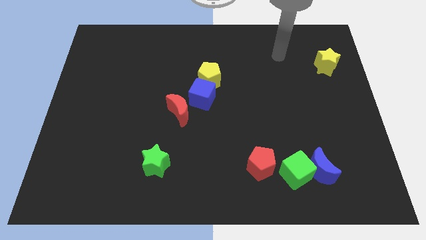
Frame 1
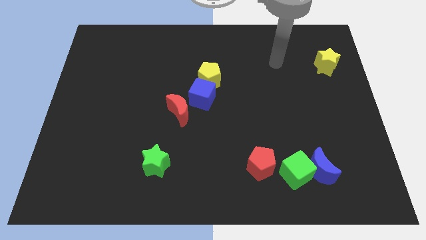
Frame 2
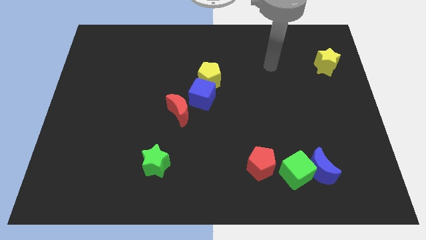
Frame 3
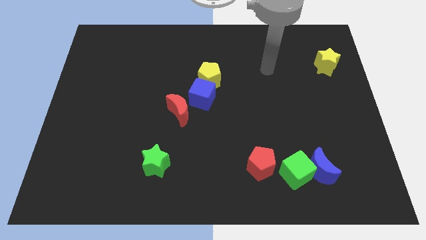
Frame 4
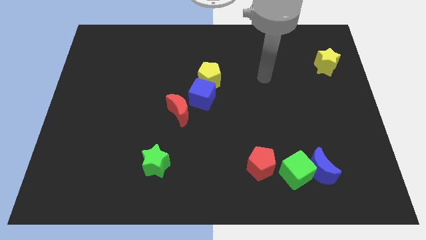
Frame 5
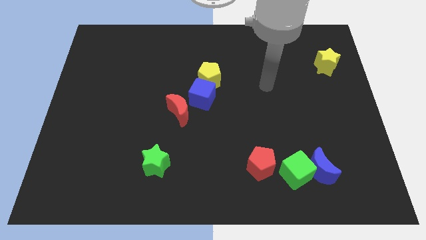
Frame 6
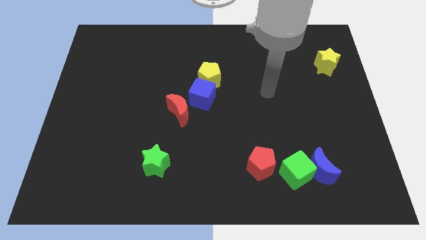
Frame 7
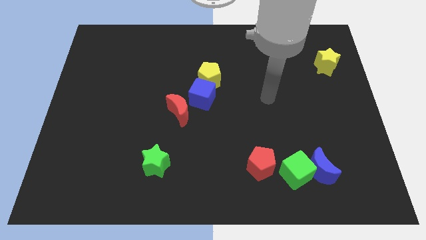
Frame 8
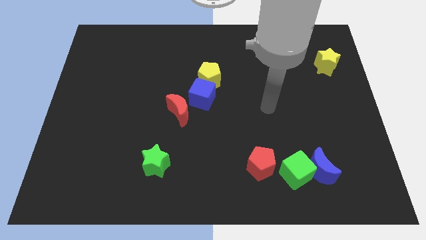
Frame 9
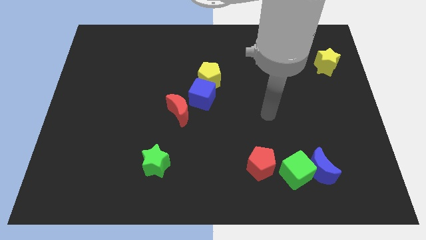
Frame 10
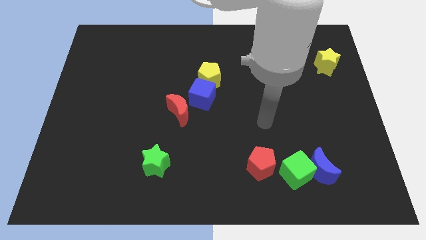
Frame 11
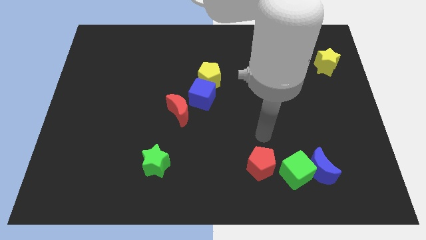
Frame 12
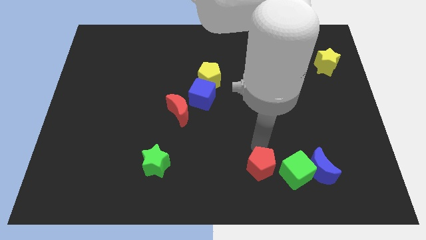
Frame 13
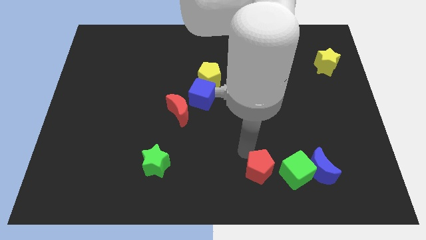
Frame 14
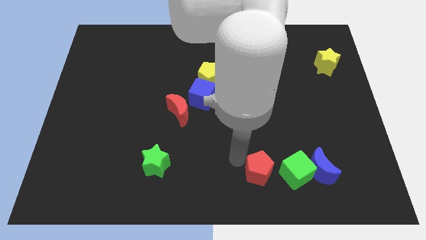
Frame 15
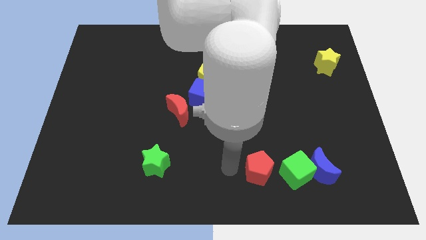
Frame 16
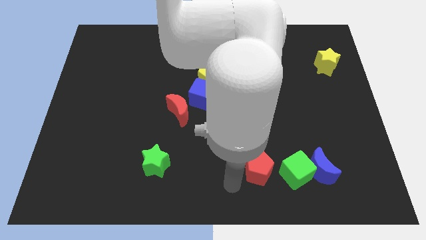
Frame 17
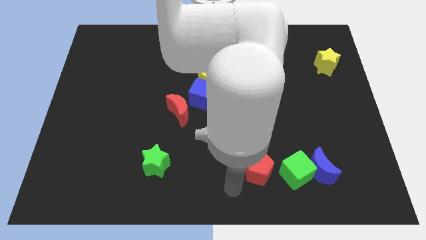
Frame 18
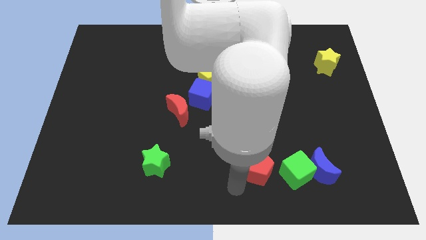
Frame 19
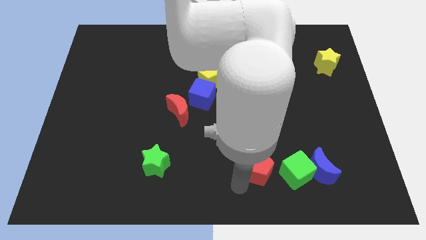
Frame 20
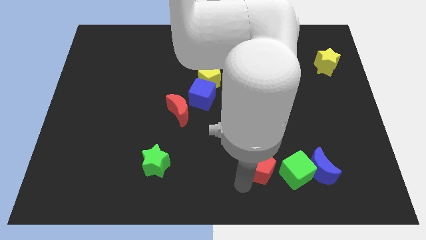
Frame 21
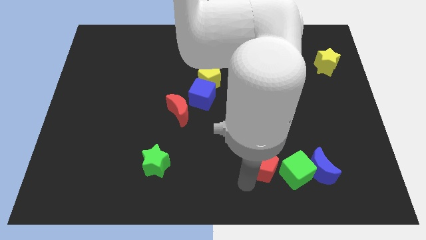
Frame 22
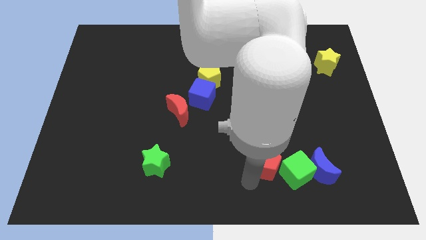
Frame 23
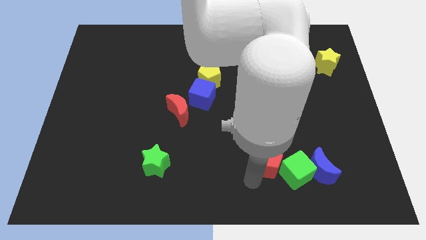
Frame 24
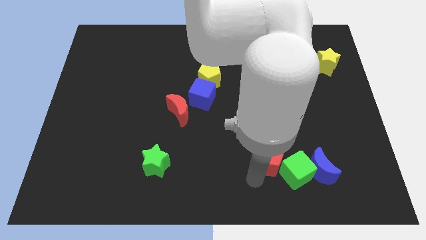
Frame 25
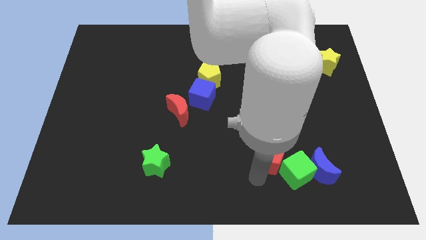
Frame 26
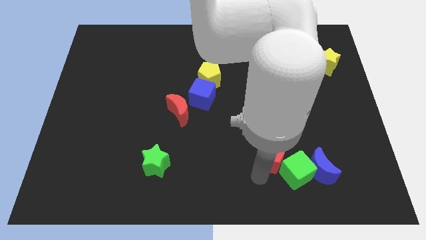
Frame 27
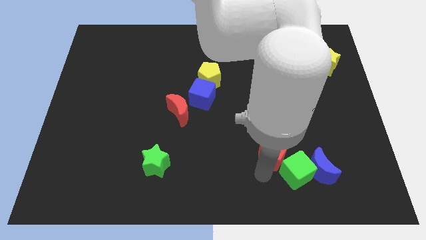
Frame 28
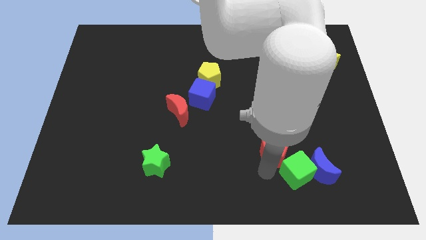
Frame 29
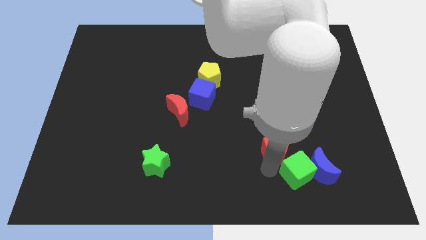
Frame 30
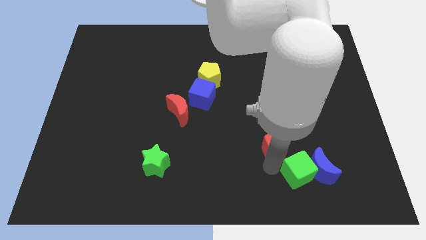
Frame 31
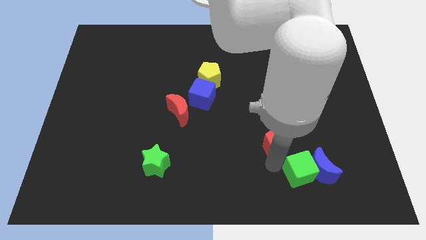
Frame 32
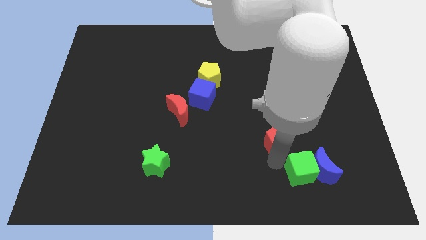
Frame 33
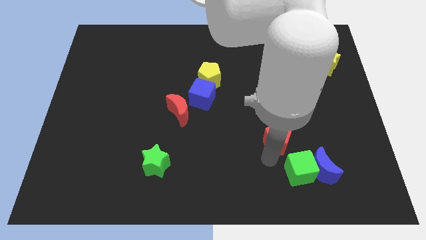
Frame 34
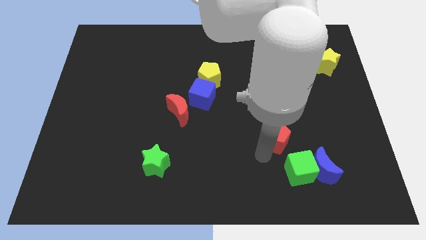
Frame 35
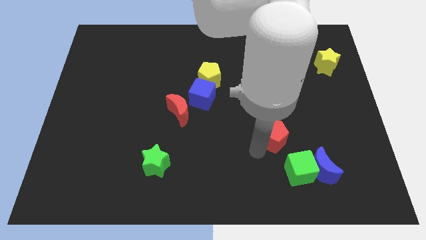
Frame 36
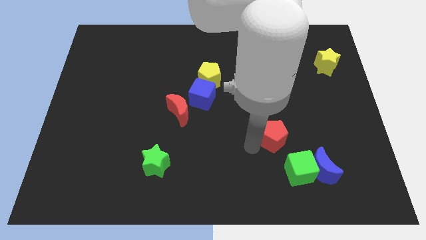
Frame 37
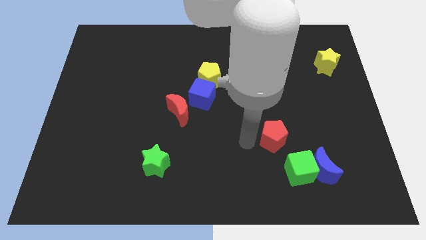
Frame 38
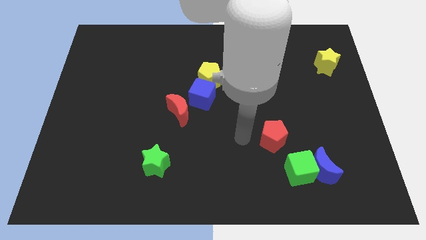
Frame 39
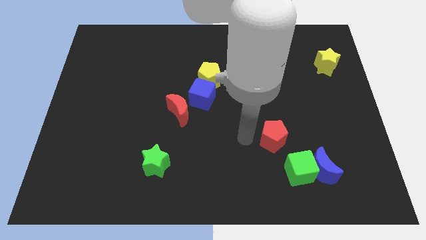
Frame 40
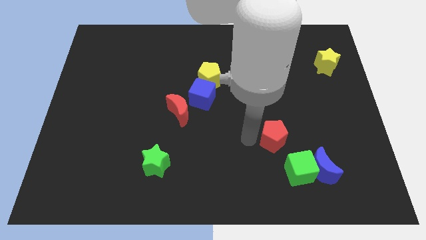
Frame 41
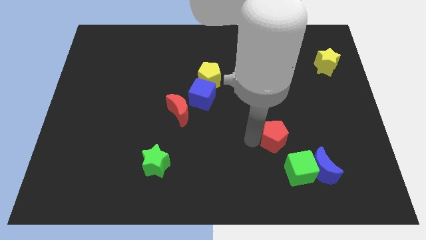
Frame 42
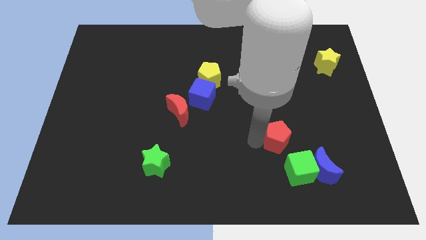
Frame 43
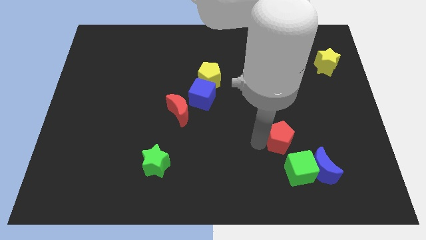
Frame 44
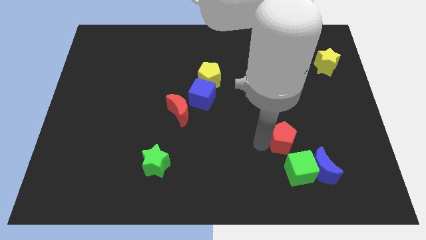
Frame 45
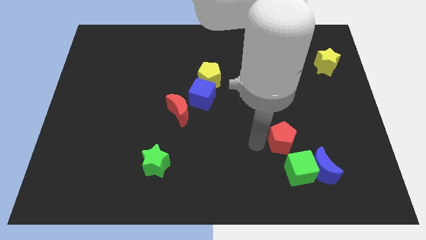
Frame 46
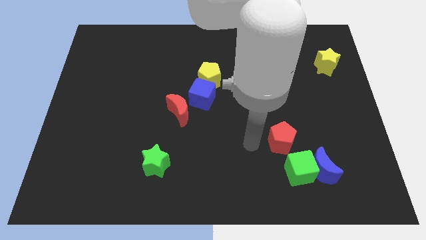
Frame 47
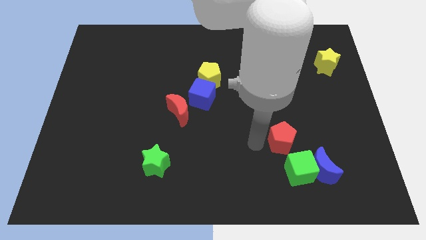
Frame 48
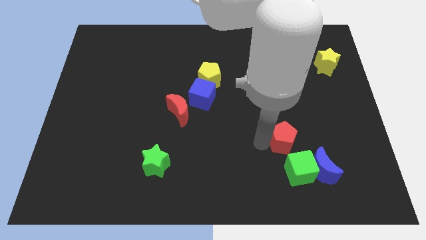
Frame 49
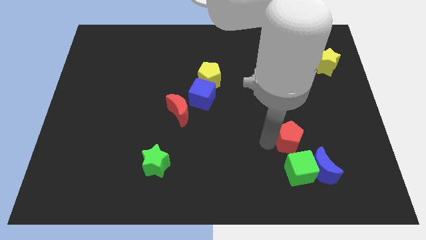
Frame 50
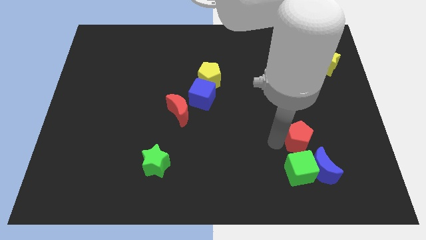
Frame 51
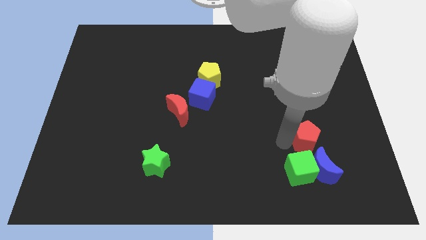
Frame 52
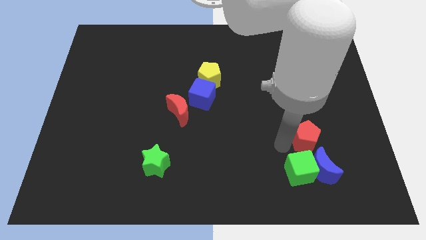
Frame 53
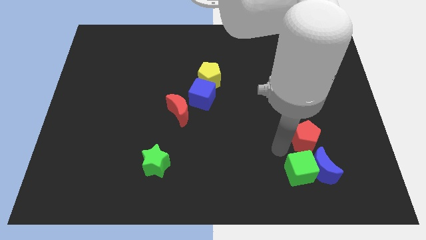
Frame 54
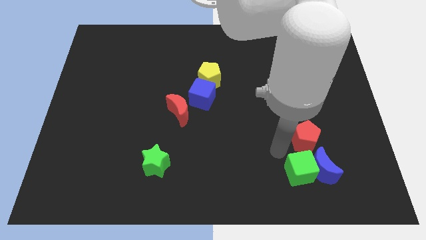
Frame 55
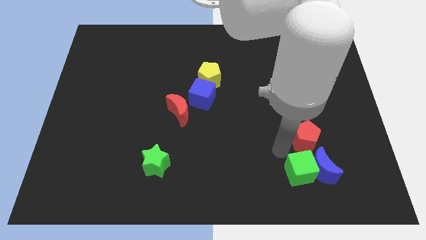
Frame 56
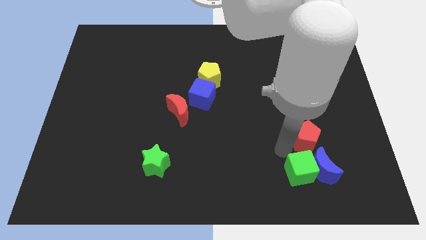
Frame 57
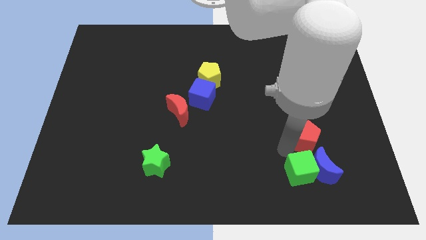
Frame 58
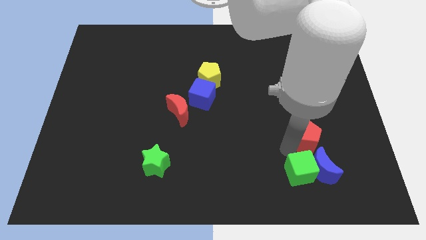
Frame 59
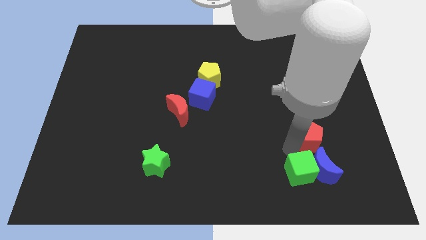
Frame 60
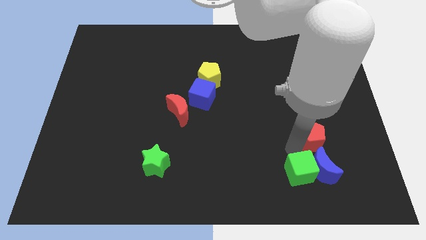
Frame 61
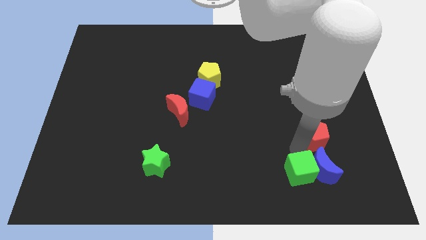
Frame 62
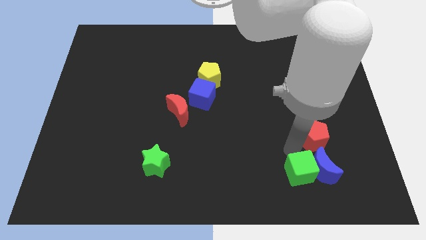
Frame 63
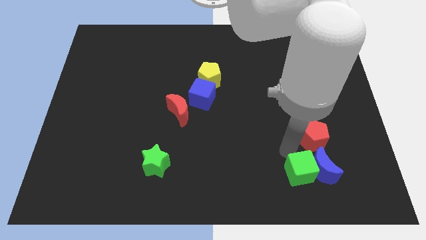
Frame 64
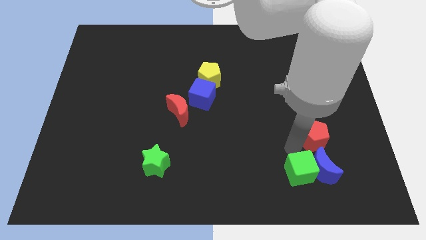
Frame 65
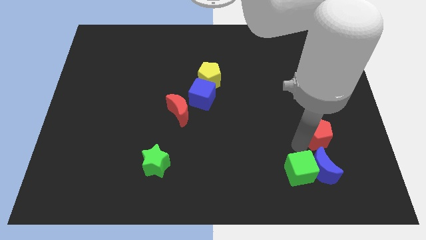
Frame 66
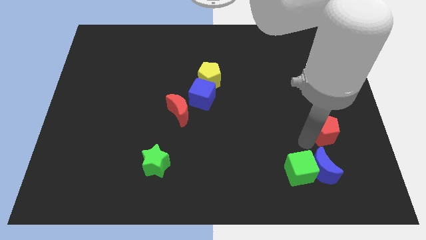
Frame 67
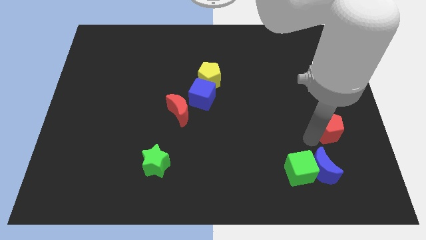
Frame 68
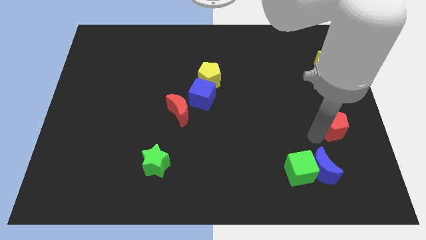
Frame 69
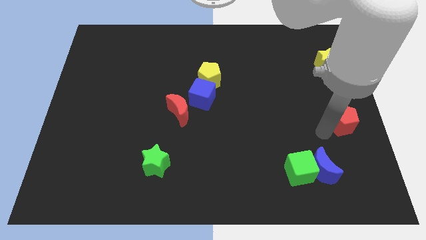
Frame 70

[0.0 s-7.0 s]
slide the red pentagon to the center right
